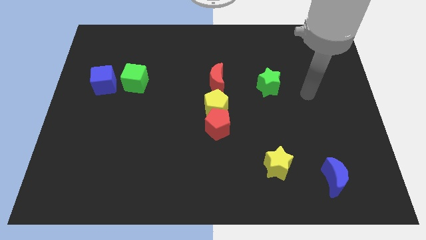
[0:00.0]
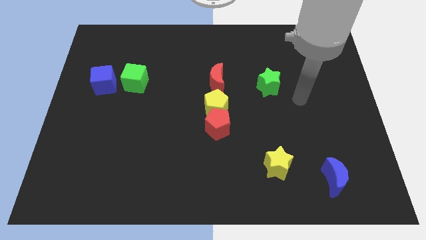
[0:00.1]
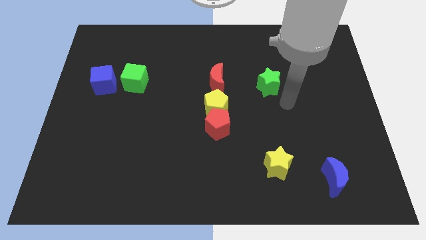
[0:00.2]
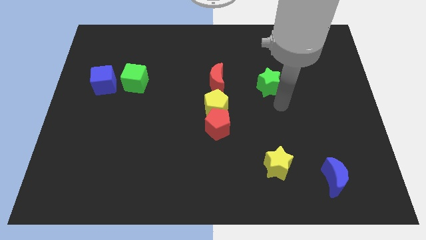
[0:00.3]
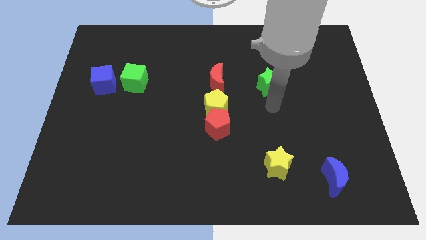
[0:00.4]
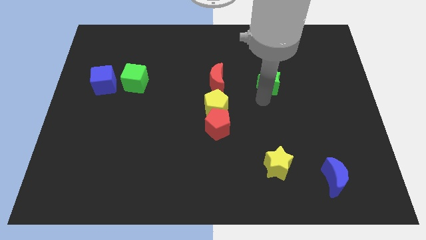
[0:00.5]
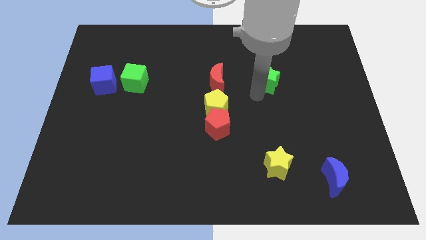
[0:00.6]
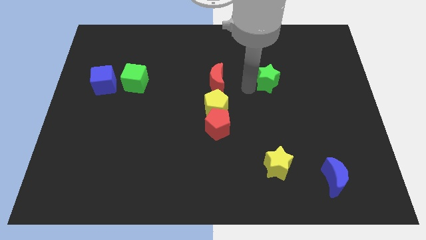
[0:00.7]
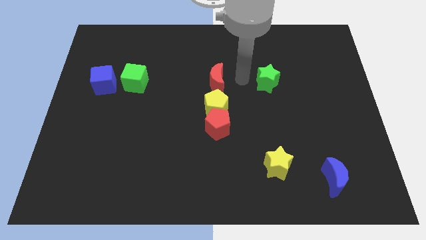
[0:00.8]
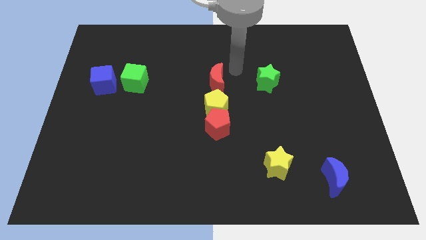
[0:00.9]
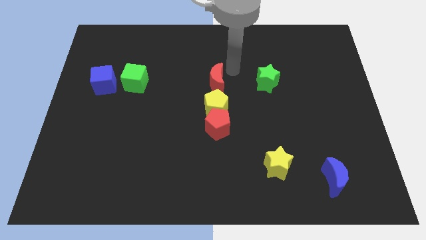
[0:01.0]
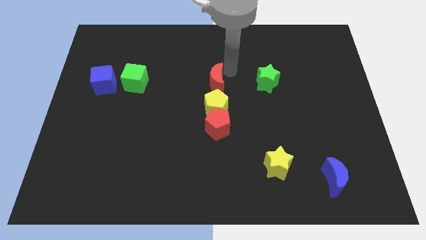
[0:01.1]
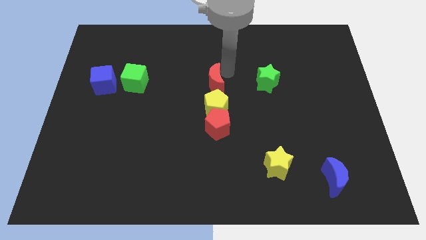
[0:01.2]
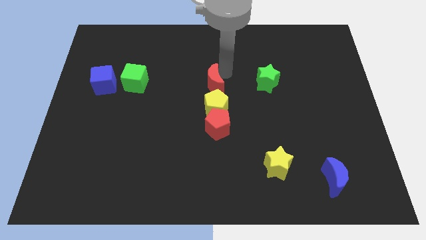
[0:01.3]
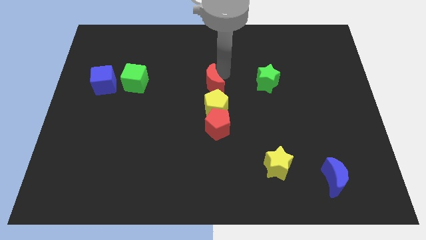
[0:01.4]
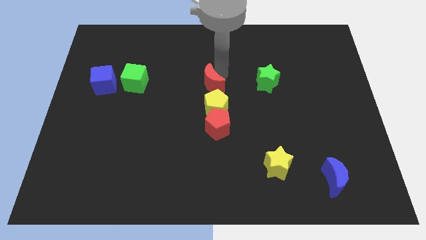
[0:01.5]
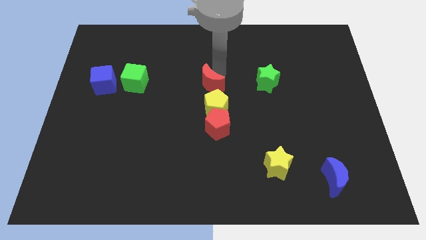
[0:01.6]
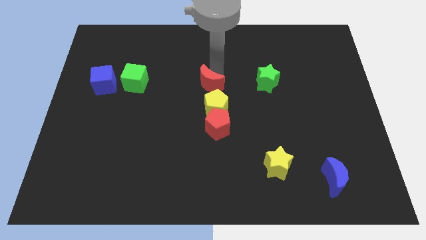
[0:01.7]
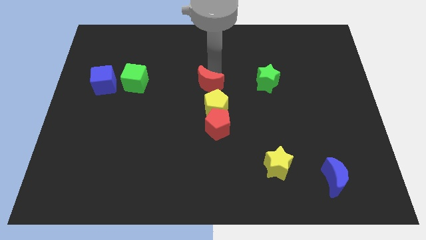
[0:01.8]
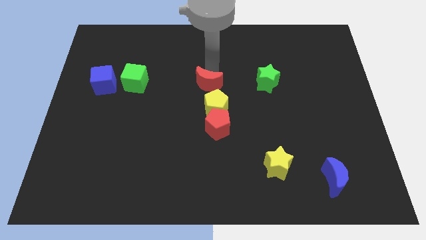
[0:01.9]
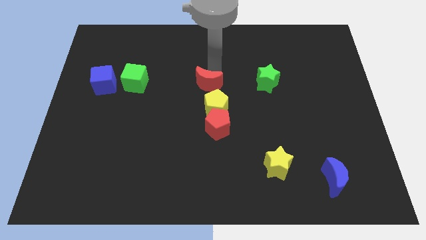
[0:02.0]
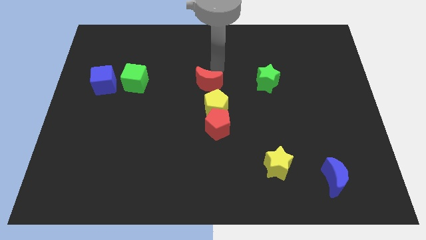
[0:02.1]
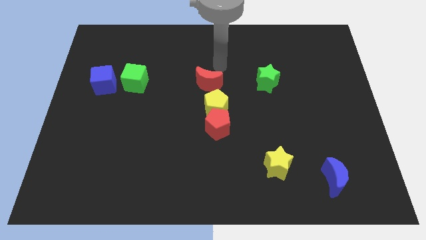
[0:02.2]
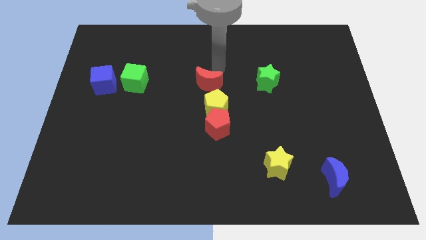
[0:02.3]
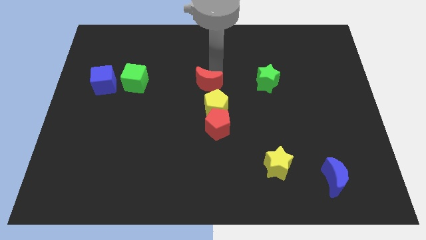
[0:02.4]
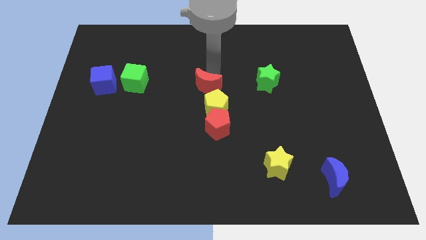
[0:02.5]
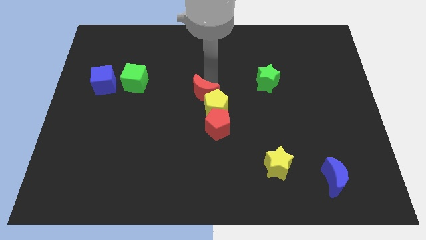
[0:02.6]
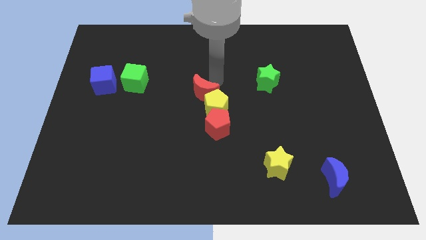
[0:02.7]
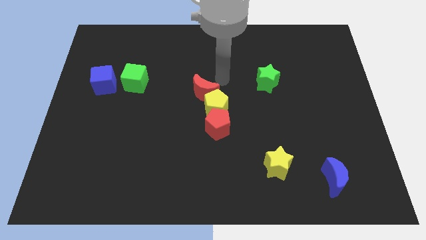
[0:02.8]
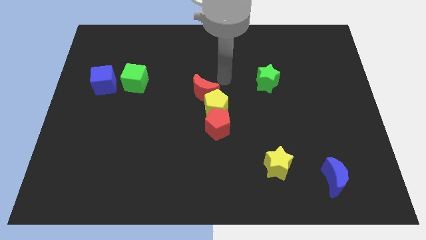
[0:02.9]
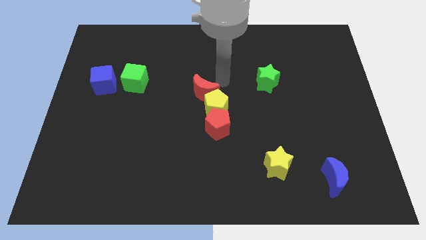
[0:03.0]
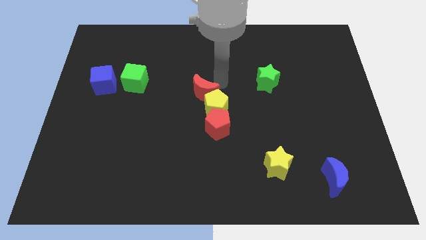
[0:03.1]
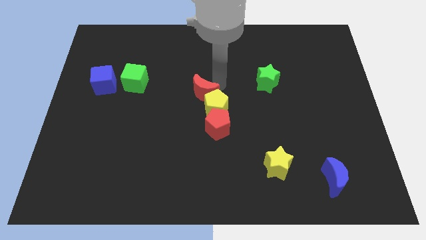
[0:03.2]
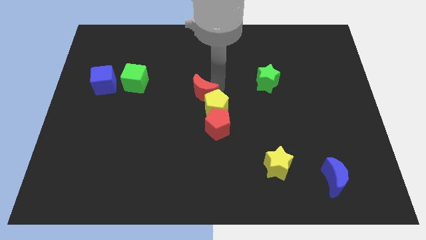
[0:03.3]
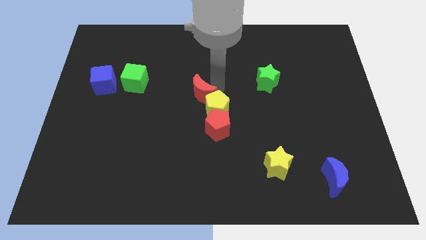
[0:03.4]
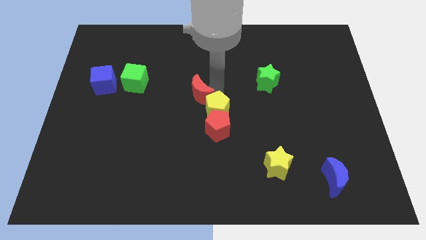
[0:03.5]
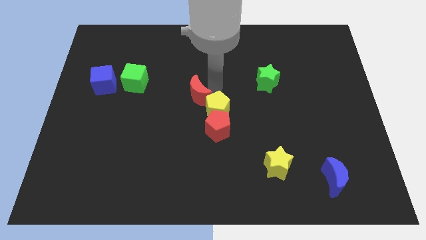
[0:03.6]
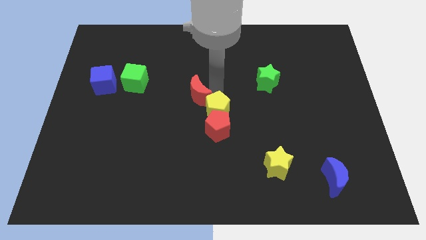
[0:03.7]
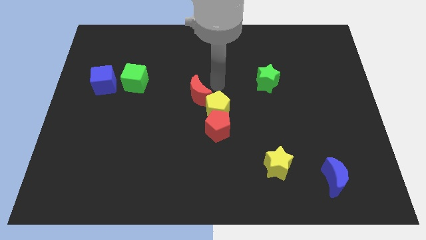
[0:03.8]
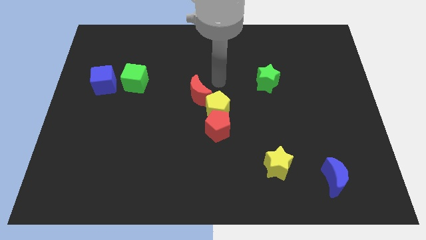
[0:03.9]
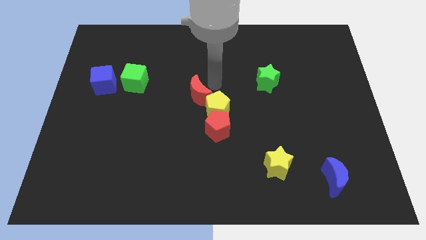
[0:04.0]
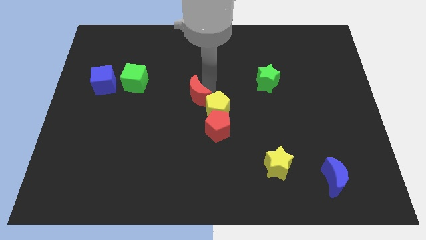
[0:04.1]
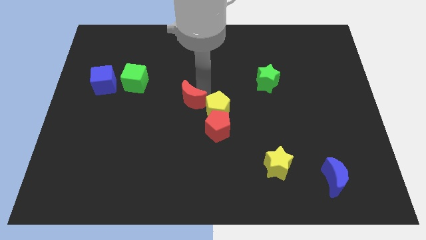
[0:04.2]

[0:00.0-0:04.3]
slide the red moon somewhat downwards and then left

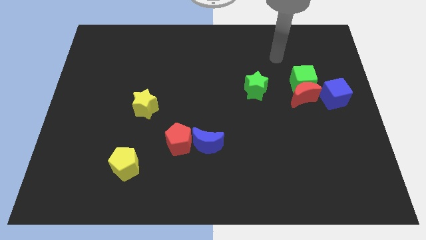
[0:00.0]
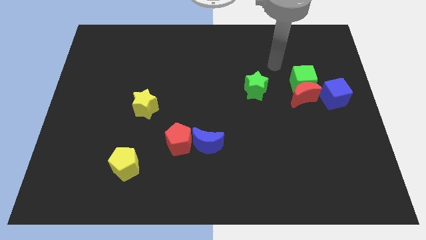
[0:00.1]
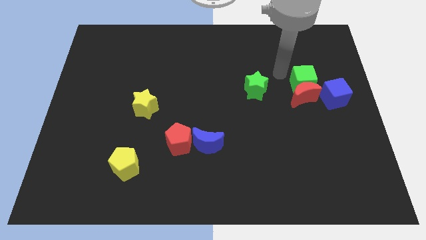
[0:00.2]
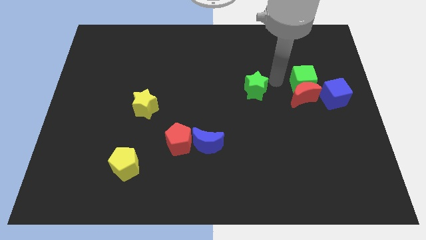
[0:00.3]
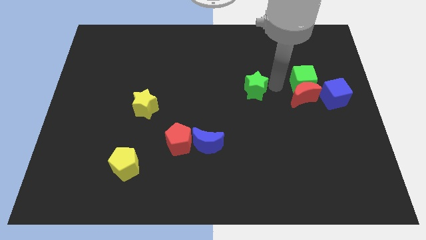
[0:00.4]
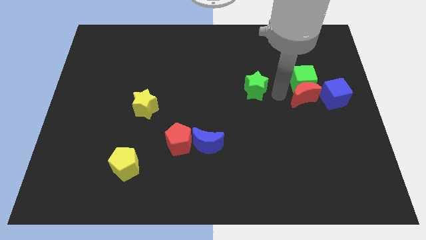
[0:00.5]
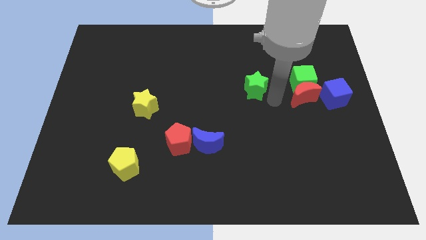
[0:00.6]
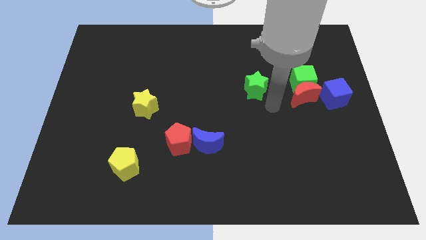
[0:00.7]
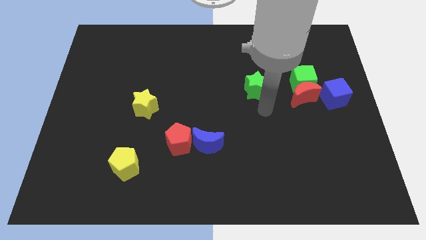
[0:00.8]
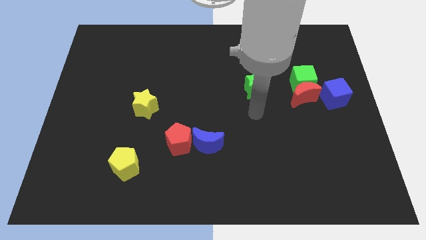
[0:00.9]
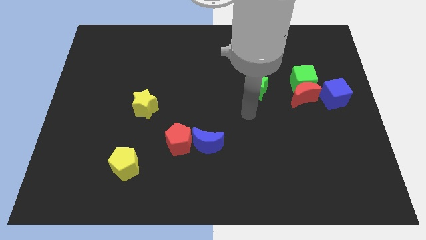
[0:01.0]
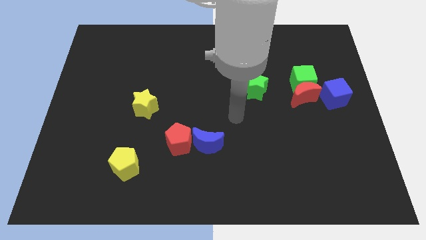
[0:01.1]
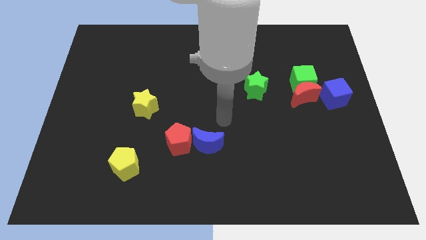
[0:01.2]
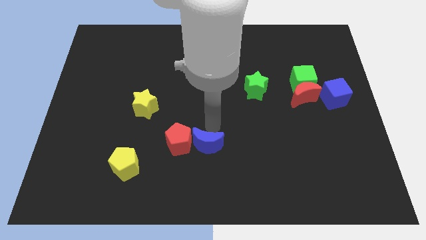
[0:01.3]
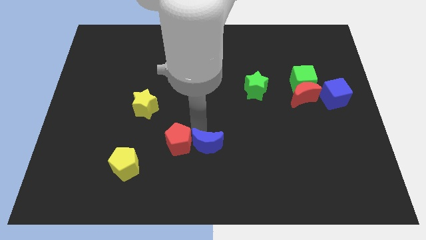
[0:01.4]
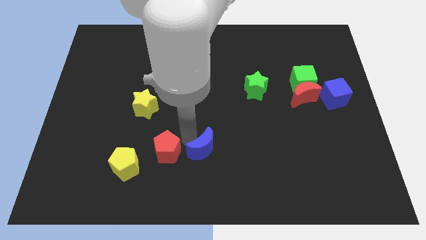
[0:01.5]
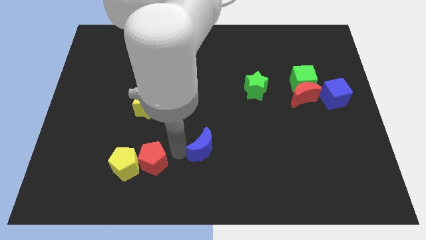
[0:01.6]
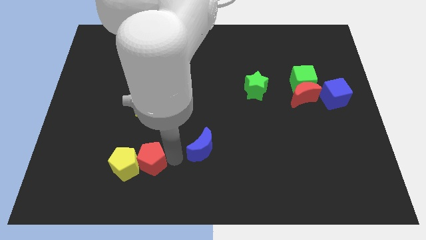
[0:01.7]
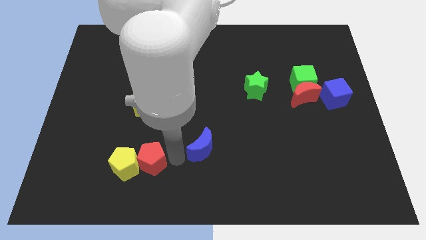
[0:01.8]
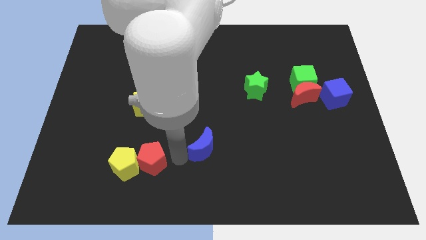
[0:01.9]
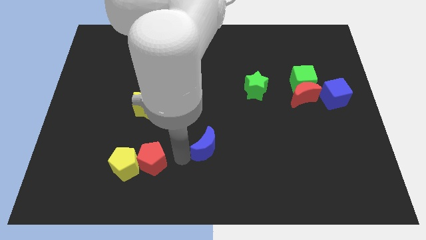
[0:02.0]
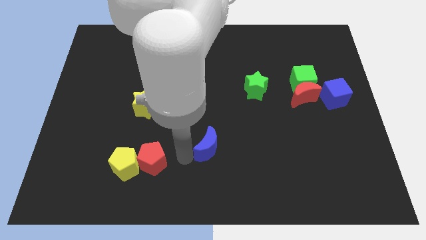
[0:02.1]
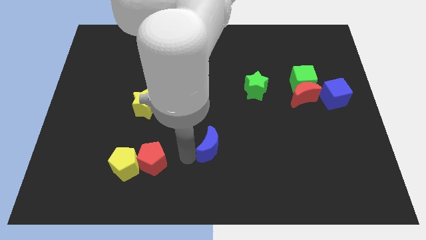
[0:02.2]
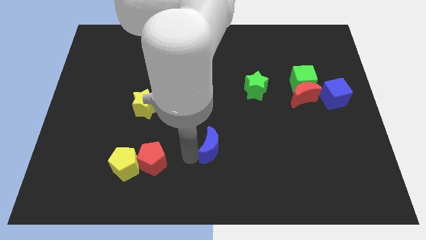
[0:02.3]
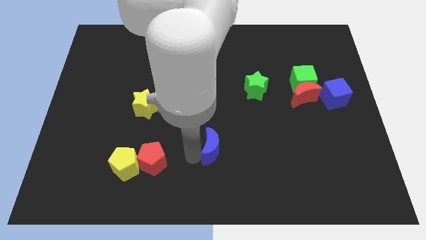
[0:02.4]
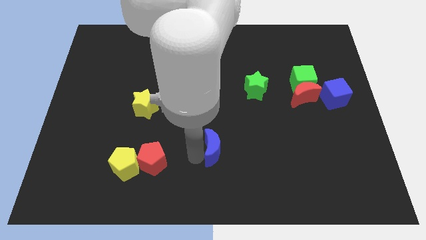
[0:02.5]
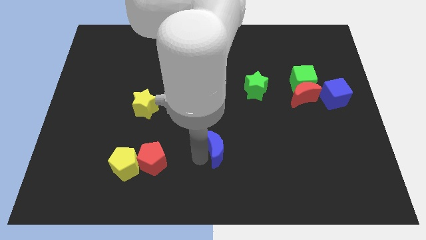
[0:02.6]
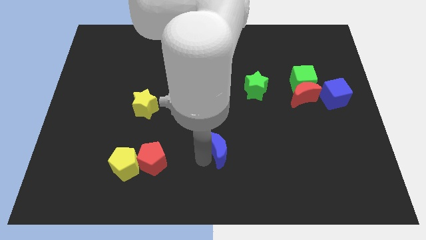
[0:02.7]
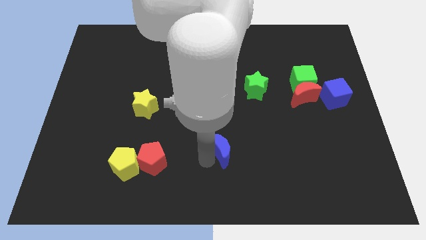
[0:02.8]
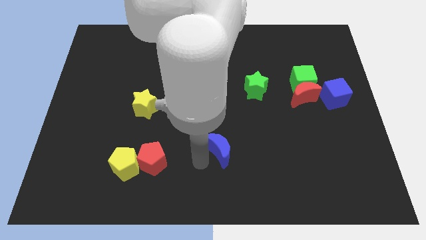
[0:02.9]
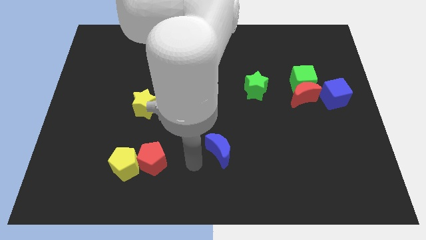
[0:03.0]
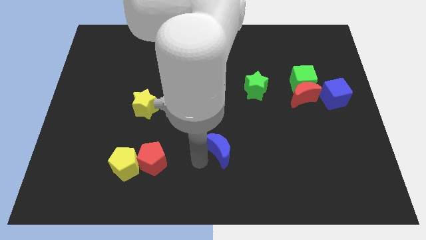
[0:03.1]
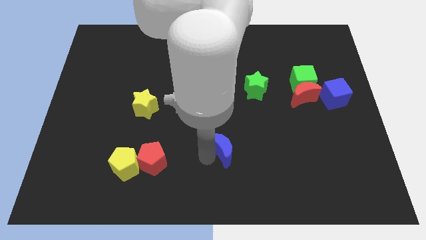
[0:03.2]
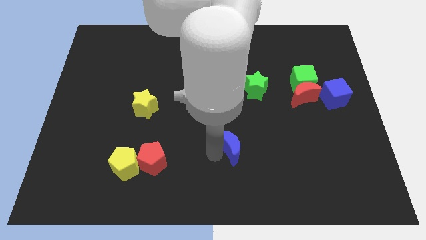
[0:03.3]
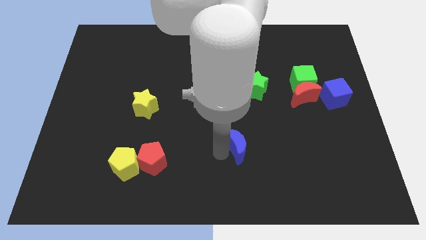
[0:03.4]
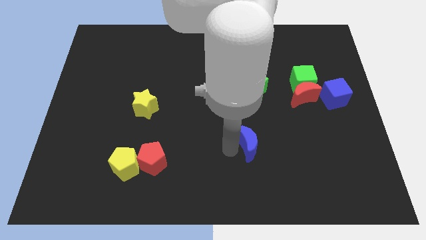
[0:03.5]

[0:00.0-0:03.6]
move the blue moon right somewhat

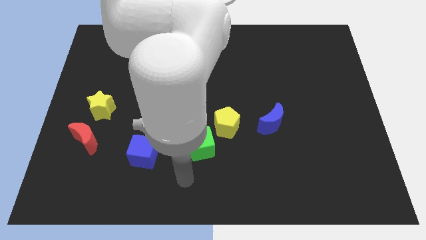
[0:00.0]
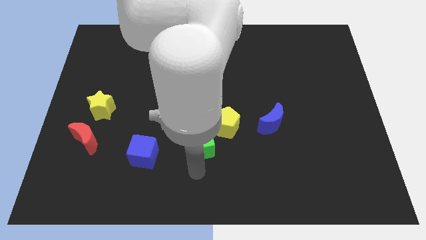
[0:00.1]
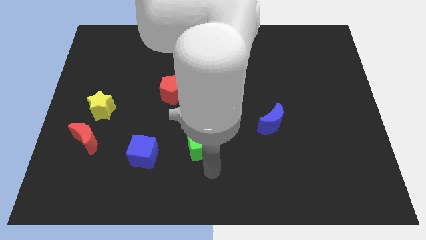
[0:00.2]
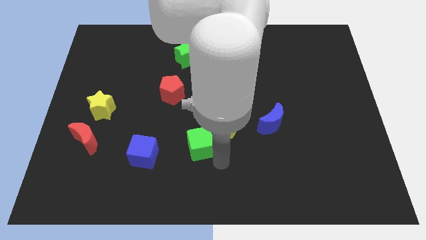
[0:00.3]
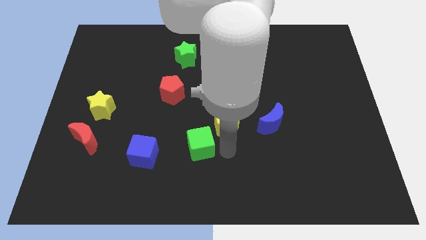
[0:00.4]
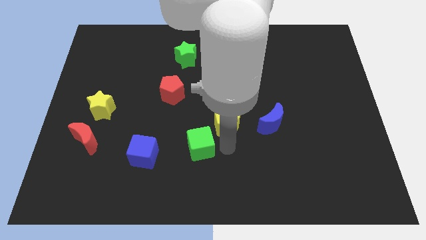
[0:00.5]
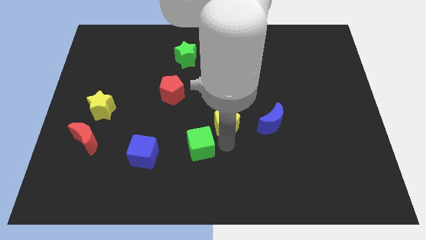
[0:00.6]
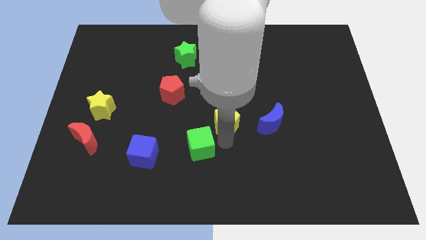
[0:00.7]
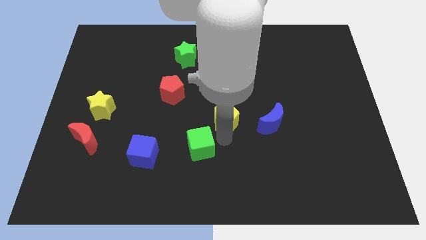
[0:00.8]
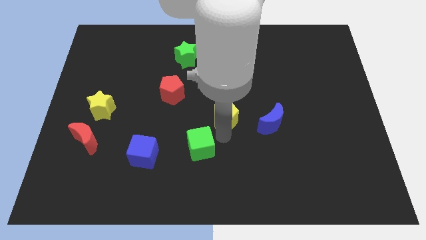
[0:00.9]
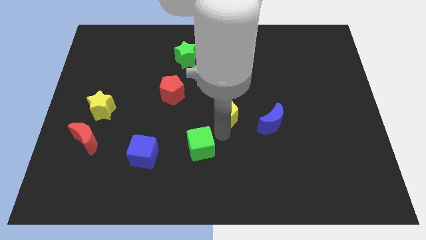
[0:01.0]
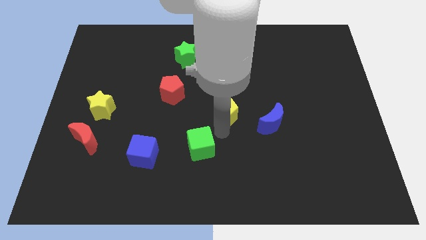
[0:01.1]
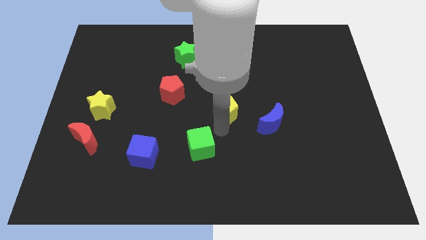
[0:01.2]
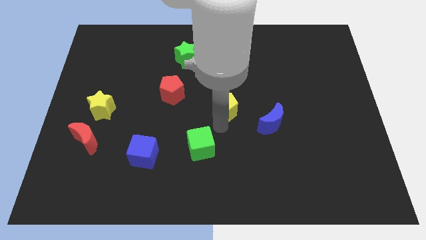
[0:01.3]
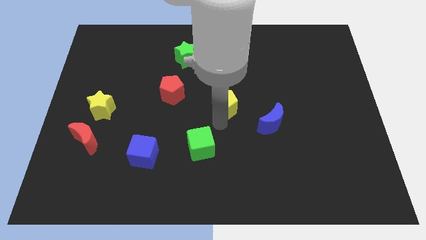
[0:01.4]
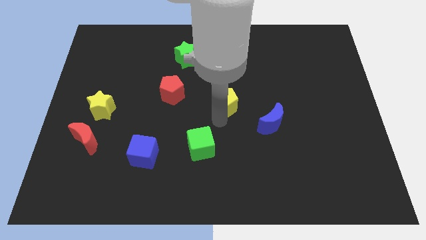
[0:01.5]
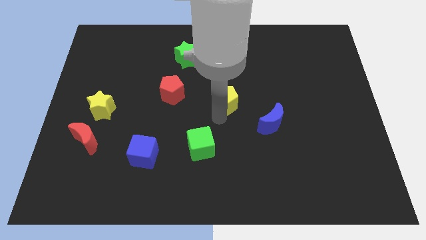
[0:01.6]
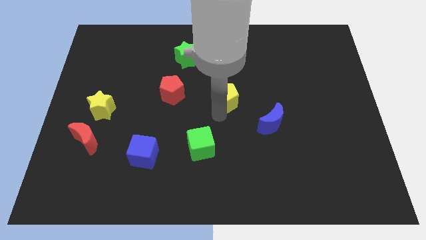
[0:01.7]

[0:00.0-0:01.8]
move the yellow pentagon up somewhat
